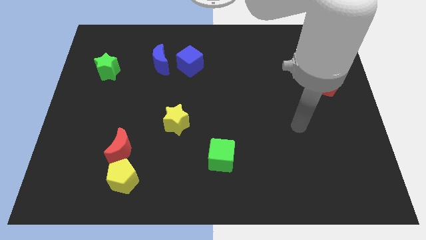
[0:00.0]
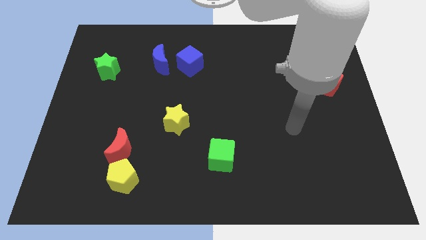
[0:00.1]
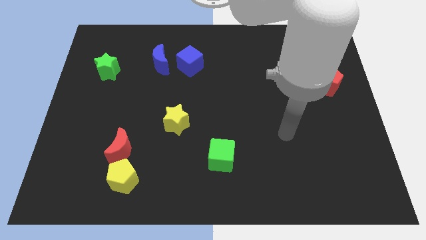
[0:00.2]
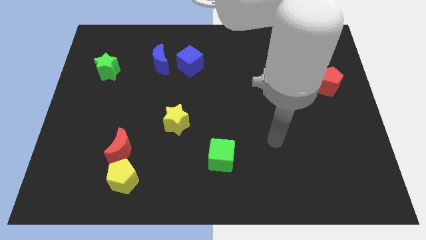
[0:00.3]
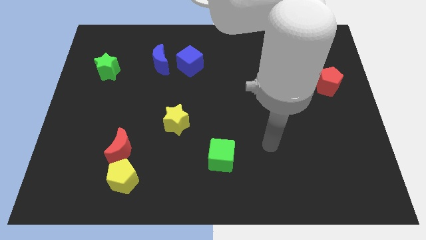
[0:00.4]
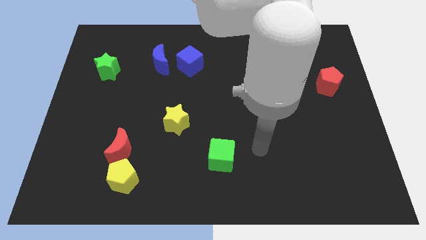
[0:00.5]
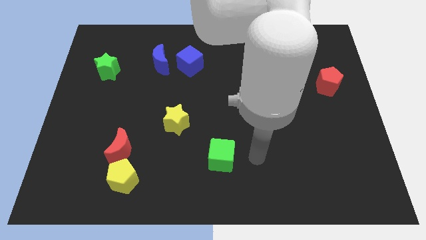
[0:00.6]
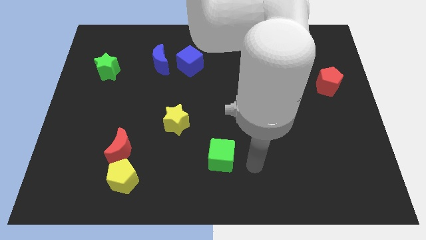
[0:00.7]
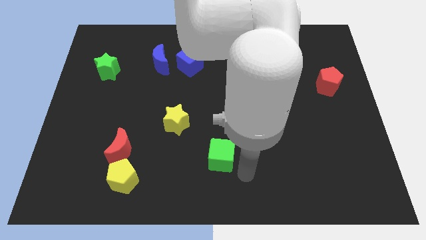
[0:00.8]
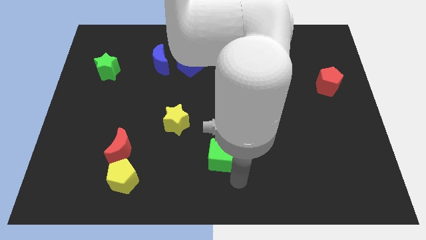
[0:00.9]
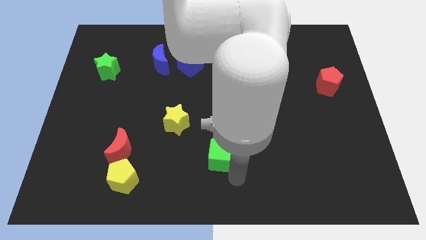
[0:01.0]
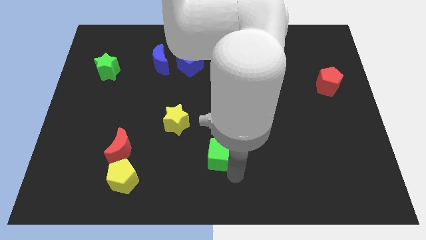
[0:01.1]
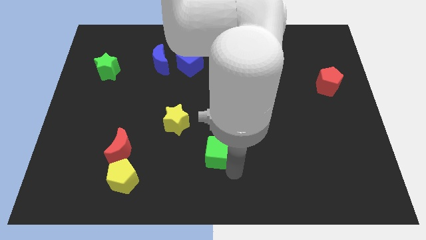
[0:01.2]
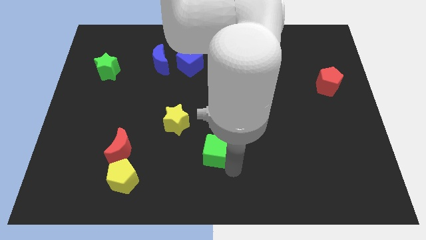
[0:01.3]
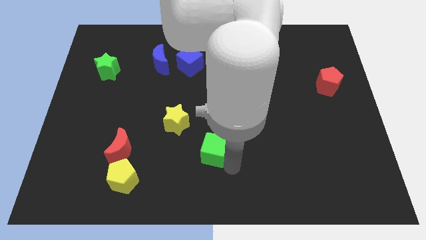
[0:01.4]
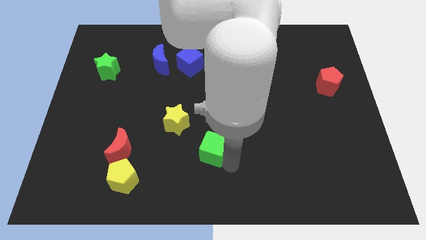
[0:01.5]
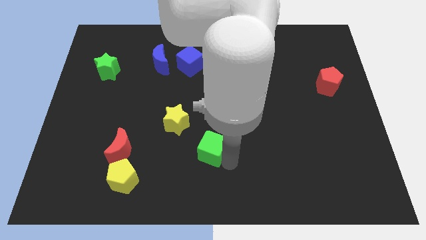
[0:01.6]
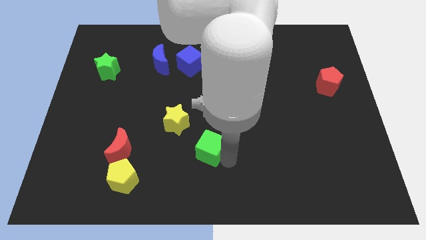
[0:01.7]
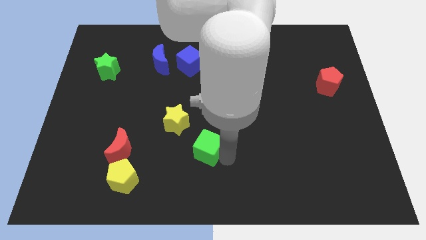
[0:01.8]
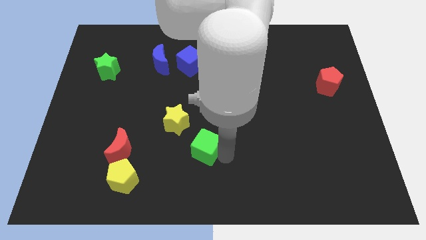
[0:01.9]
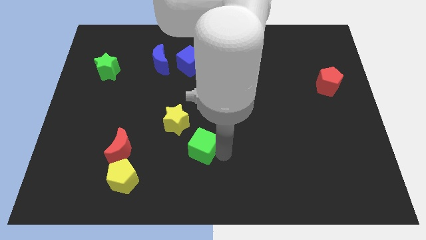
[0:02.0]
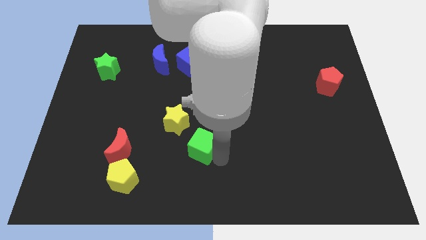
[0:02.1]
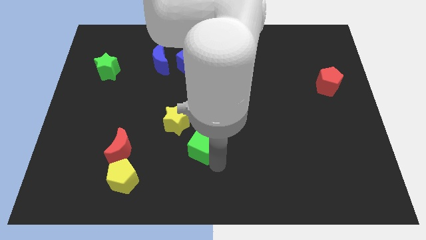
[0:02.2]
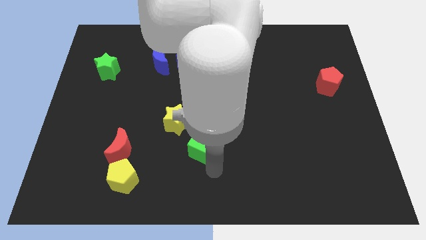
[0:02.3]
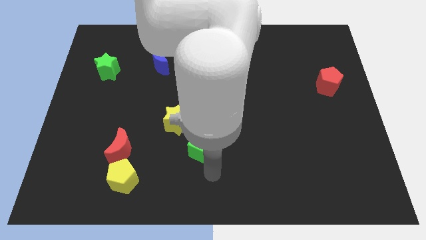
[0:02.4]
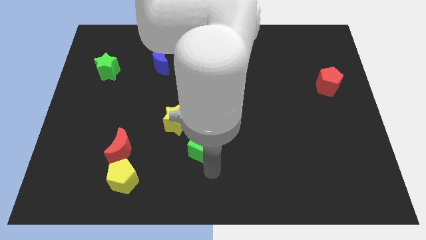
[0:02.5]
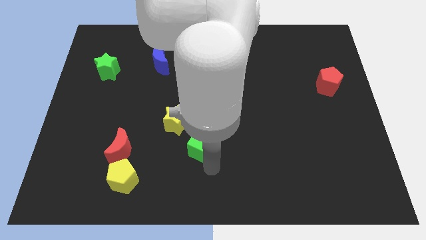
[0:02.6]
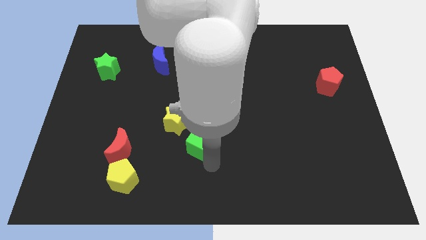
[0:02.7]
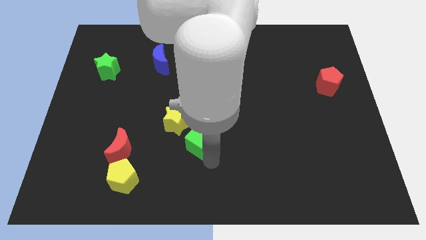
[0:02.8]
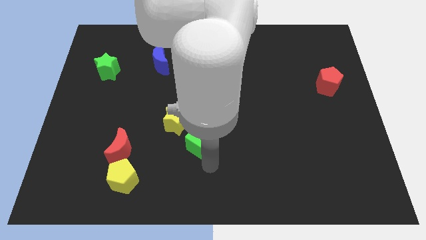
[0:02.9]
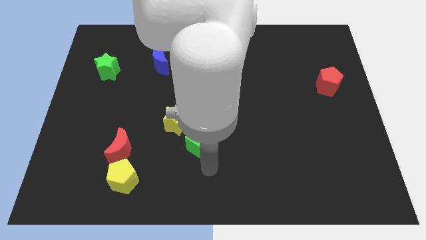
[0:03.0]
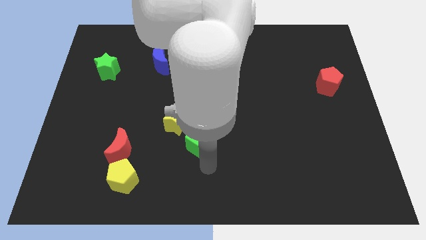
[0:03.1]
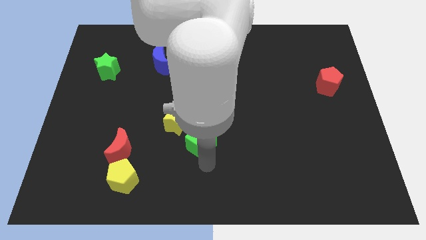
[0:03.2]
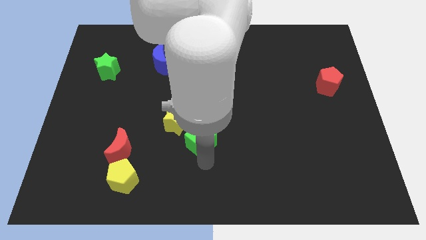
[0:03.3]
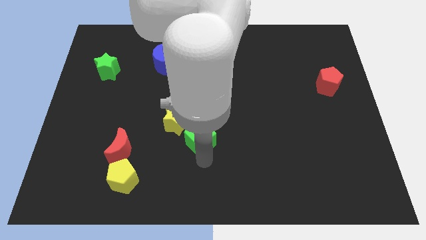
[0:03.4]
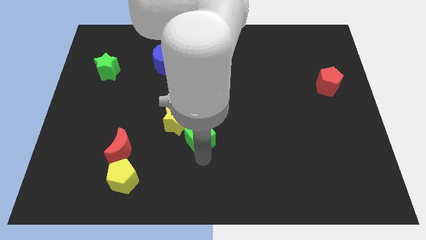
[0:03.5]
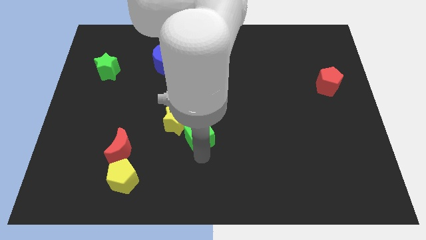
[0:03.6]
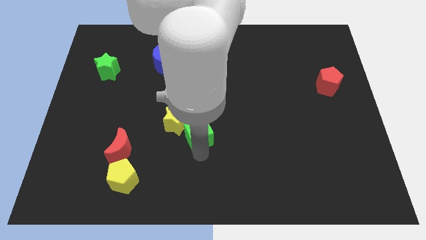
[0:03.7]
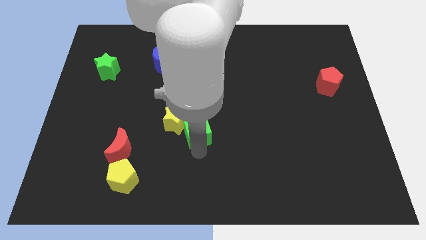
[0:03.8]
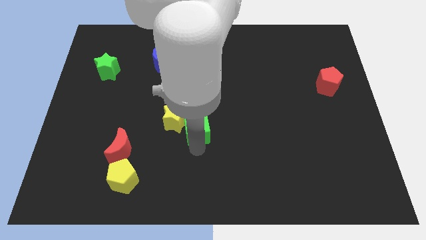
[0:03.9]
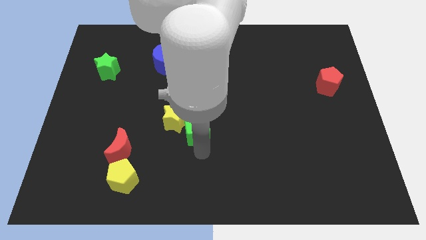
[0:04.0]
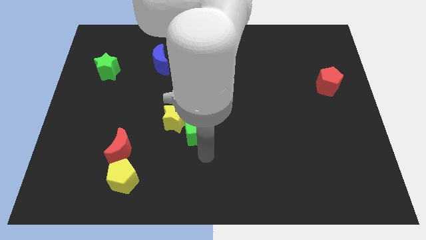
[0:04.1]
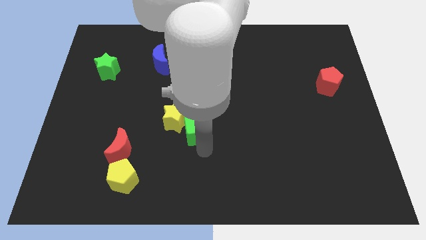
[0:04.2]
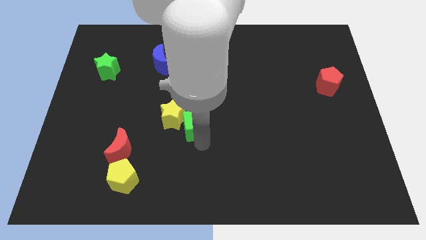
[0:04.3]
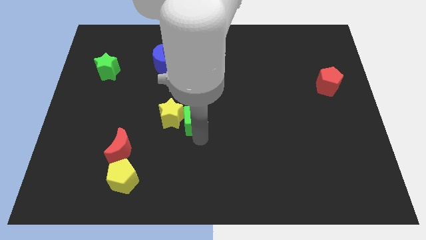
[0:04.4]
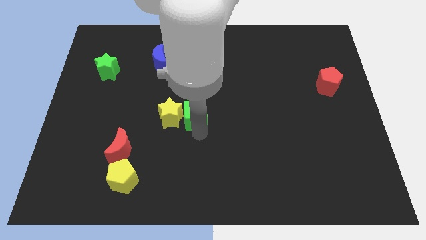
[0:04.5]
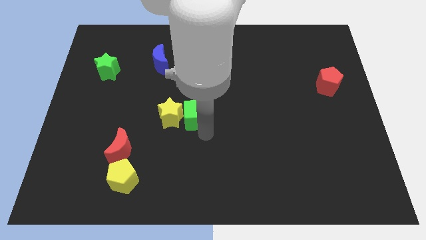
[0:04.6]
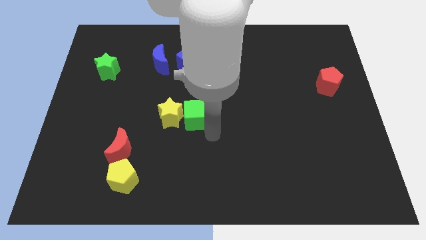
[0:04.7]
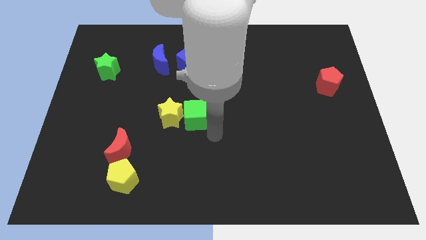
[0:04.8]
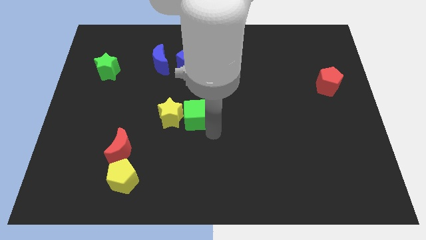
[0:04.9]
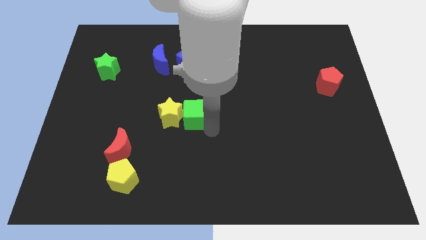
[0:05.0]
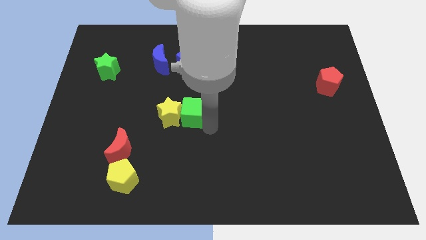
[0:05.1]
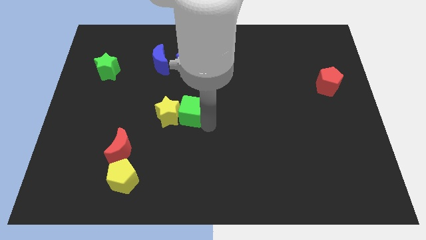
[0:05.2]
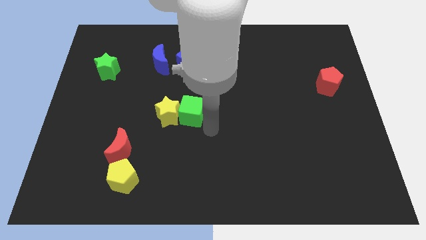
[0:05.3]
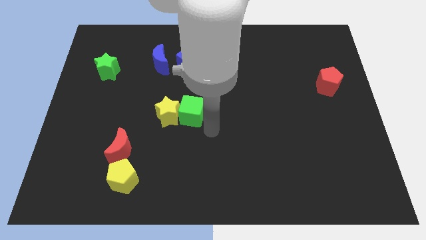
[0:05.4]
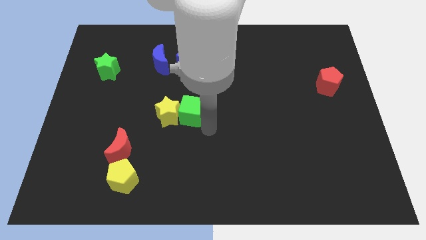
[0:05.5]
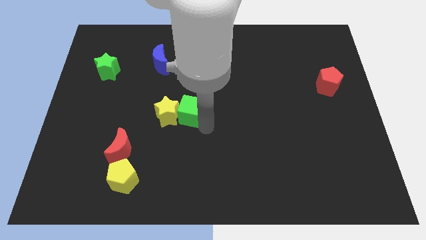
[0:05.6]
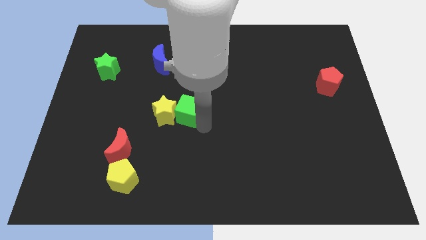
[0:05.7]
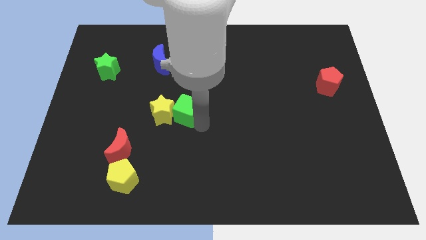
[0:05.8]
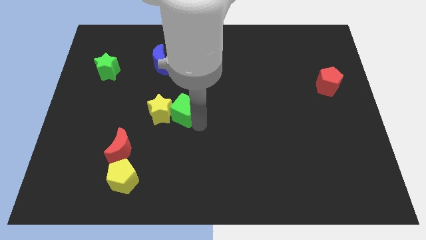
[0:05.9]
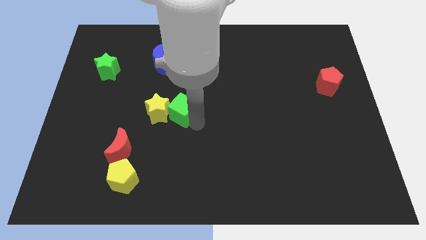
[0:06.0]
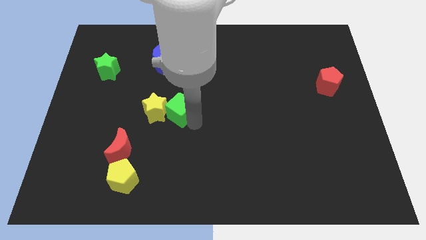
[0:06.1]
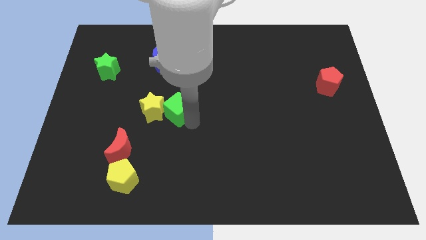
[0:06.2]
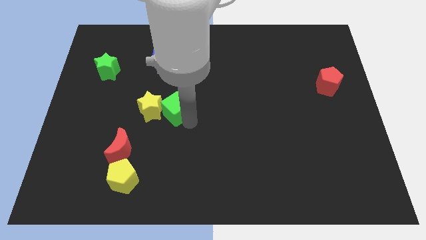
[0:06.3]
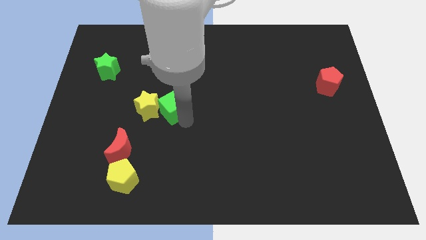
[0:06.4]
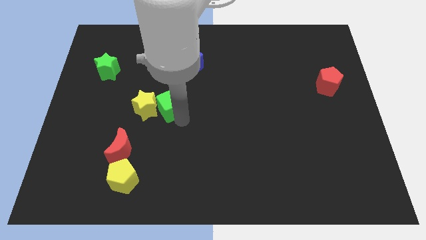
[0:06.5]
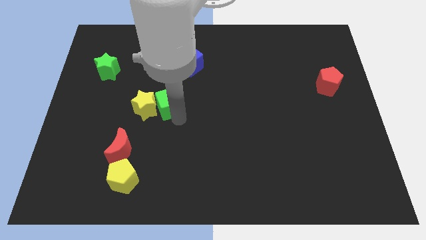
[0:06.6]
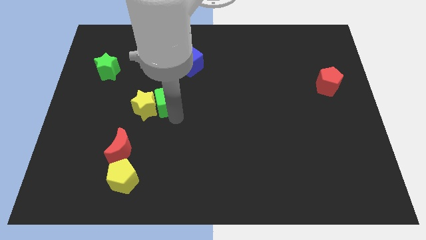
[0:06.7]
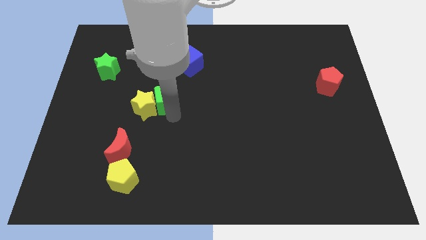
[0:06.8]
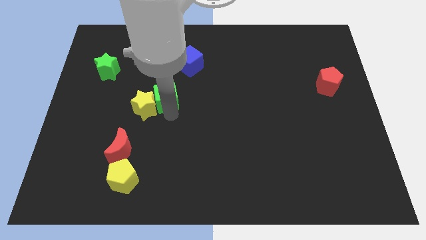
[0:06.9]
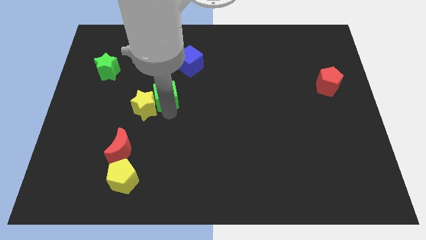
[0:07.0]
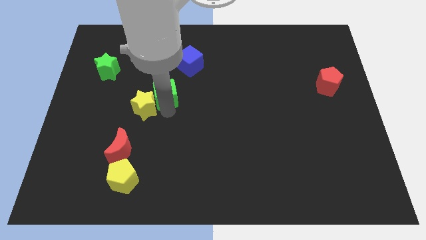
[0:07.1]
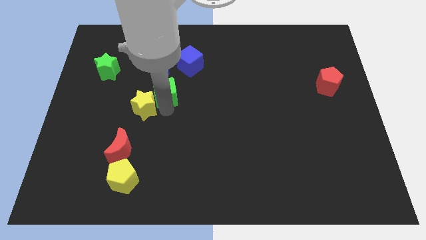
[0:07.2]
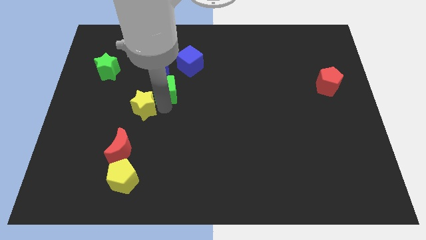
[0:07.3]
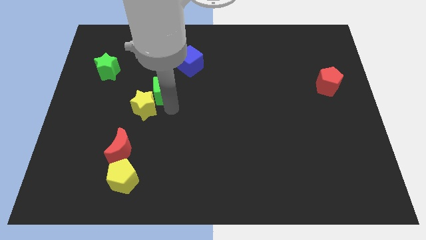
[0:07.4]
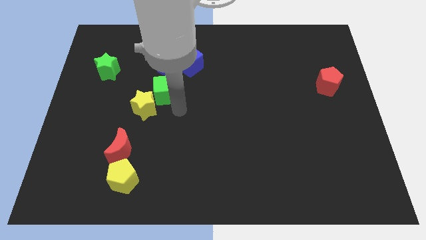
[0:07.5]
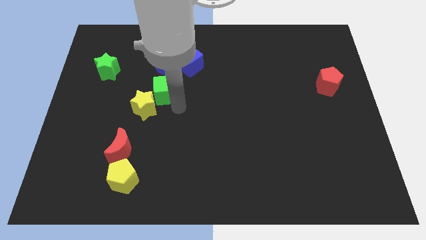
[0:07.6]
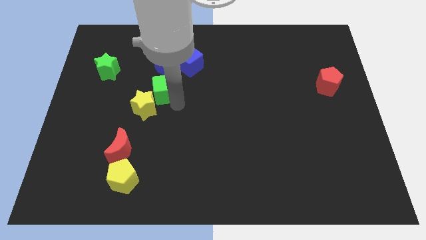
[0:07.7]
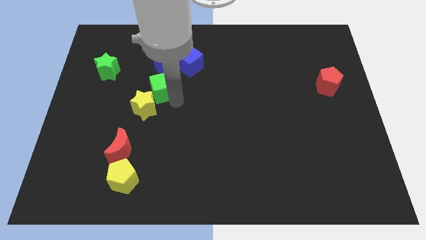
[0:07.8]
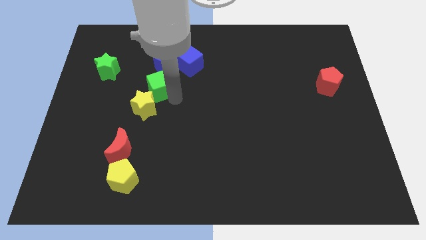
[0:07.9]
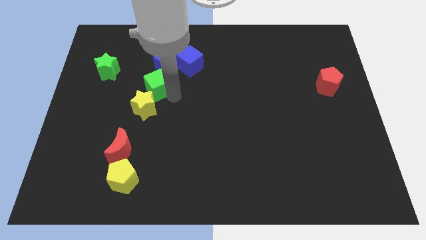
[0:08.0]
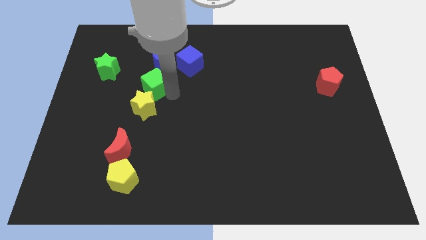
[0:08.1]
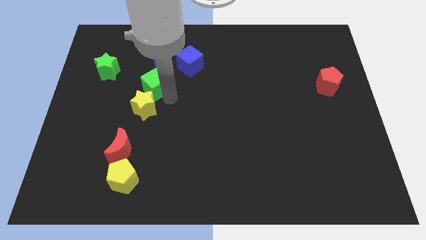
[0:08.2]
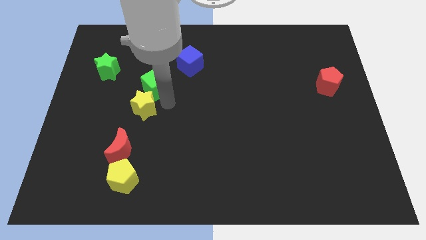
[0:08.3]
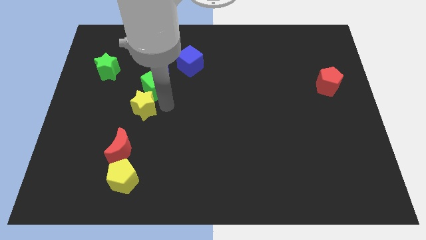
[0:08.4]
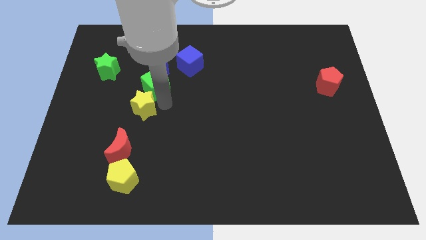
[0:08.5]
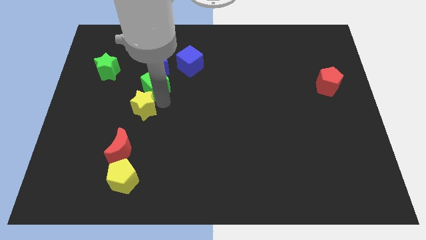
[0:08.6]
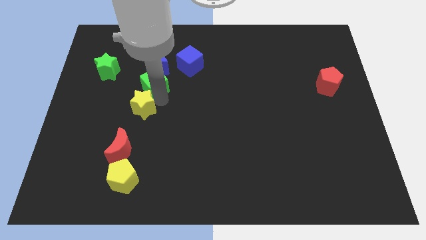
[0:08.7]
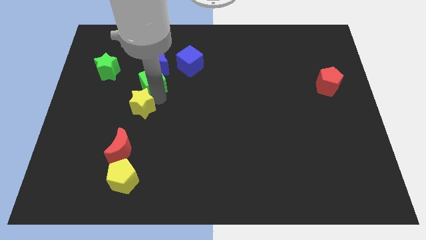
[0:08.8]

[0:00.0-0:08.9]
push the green cube right of the green star
